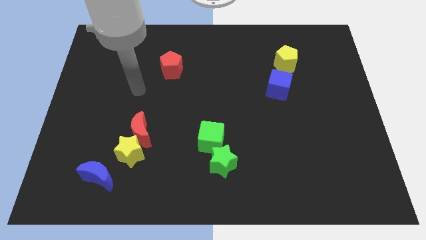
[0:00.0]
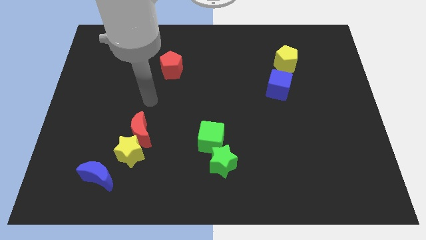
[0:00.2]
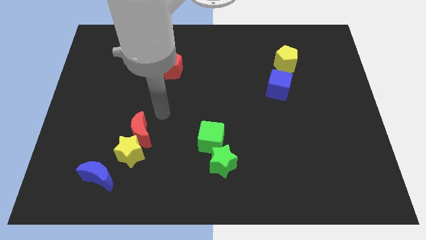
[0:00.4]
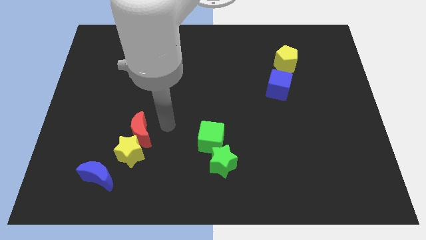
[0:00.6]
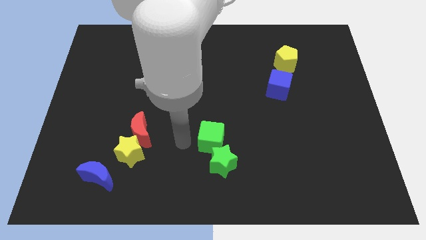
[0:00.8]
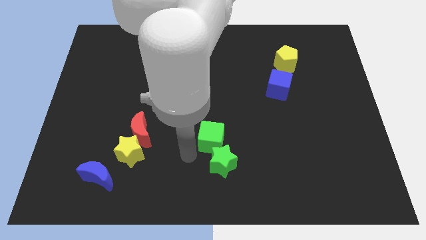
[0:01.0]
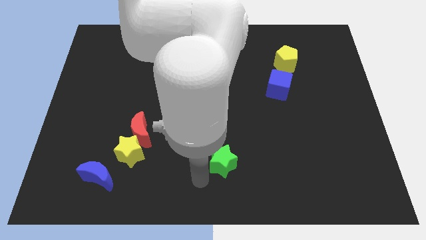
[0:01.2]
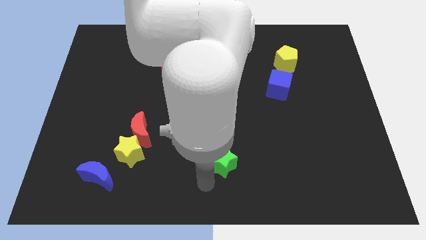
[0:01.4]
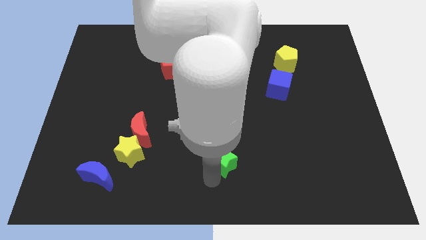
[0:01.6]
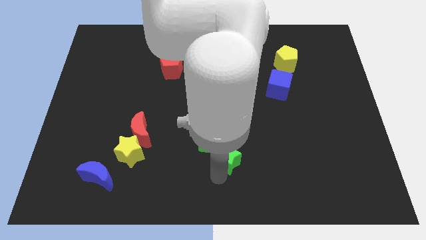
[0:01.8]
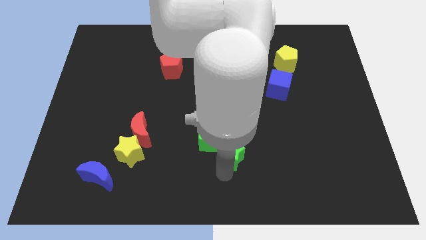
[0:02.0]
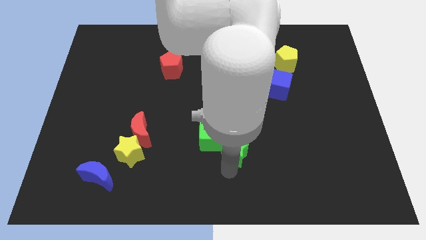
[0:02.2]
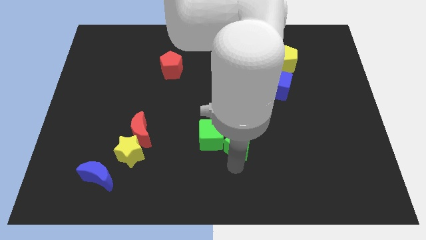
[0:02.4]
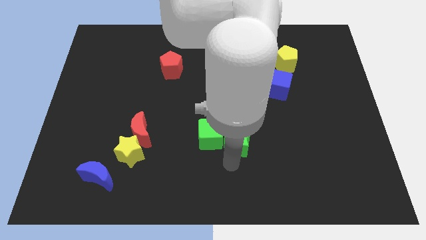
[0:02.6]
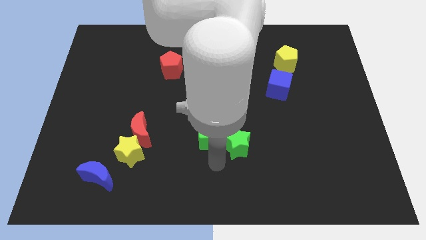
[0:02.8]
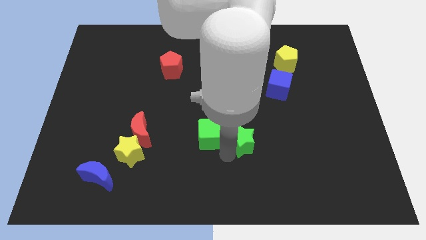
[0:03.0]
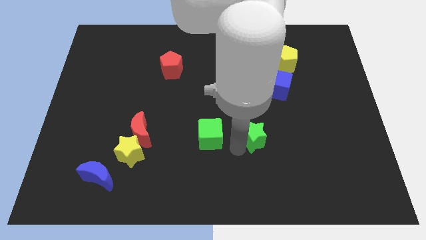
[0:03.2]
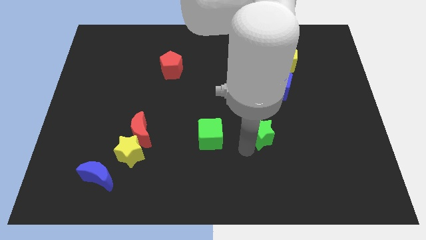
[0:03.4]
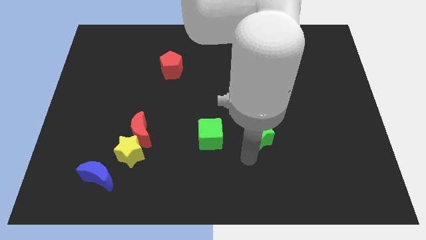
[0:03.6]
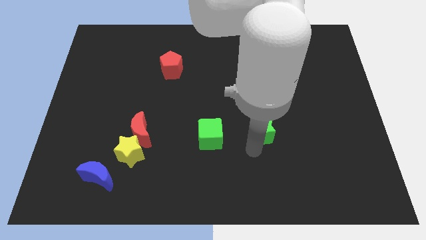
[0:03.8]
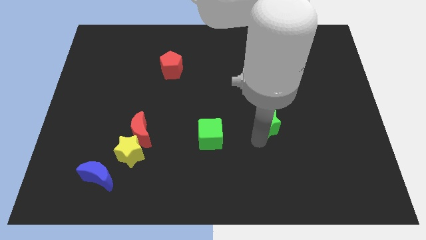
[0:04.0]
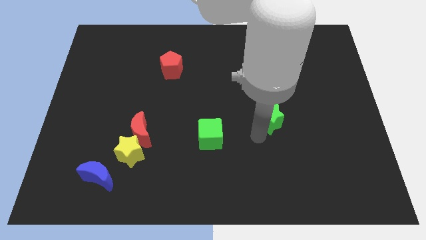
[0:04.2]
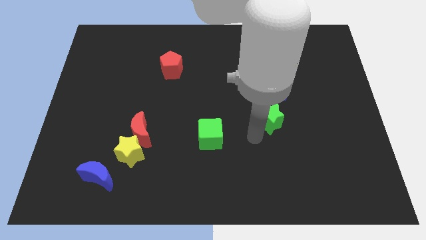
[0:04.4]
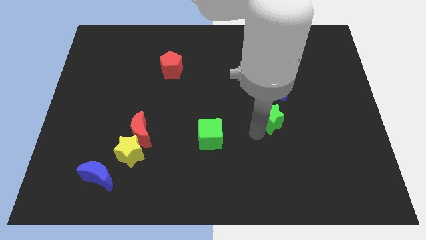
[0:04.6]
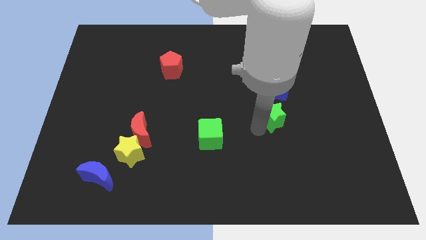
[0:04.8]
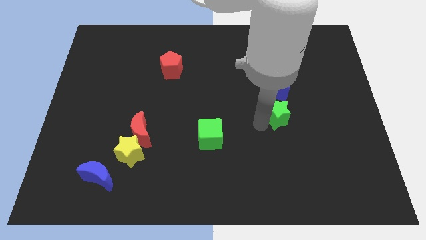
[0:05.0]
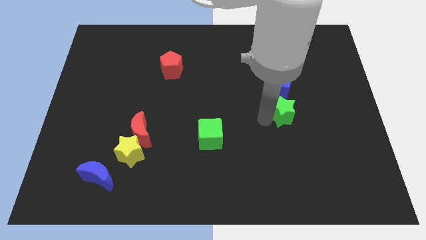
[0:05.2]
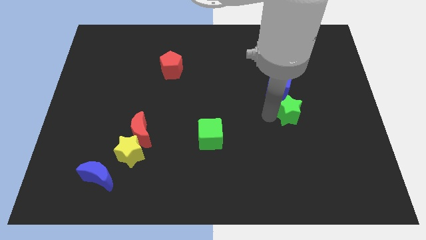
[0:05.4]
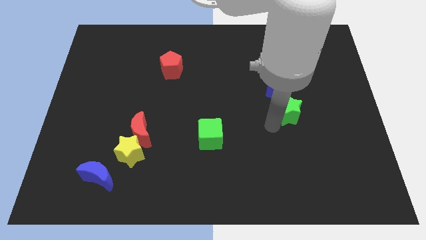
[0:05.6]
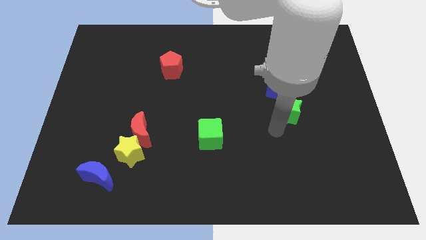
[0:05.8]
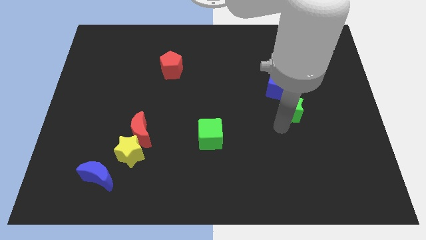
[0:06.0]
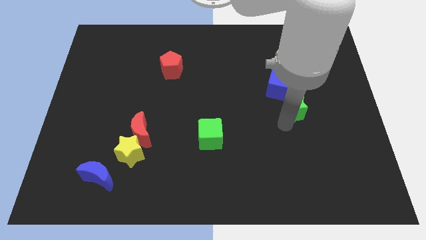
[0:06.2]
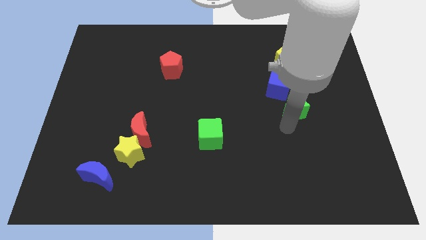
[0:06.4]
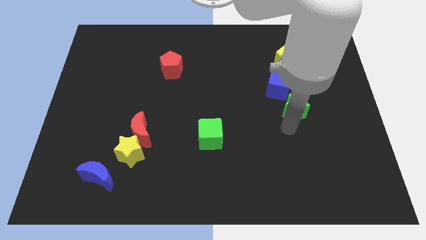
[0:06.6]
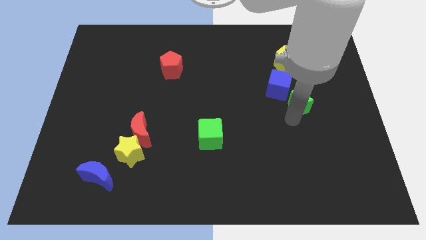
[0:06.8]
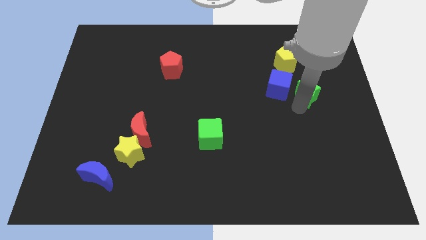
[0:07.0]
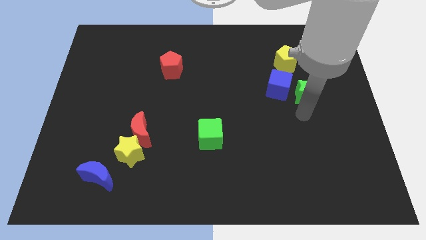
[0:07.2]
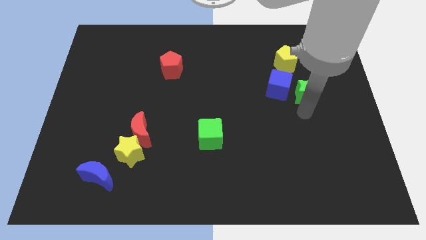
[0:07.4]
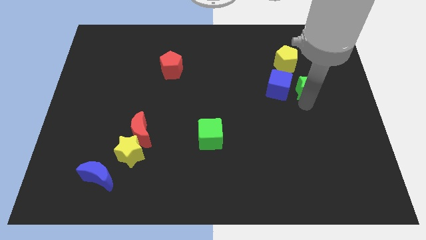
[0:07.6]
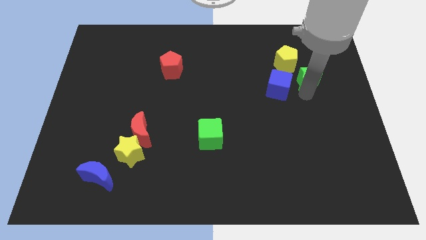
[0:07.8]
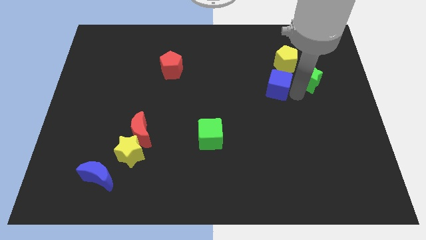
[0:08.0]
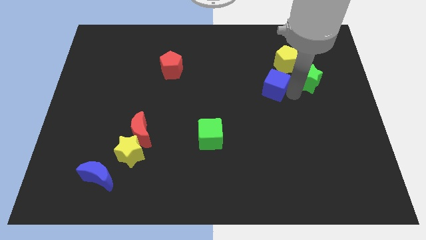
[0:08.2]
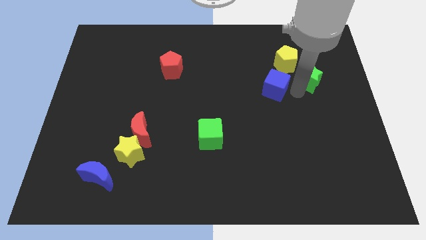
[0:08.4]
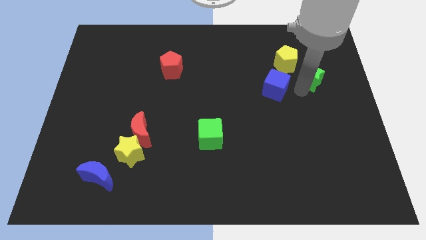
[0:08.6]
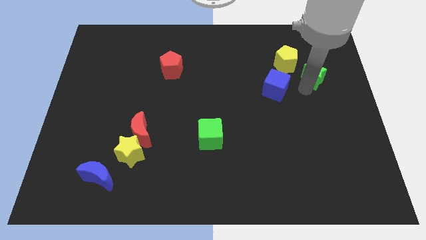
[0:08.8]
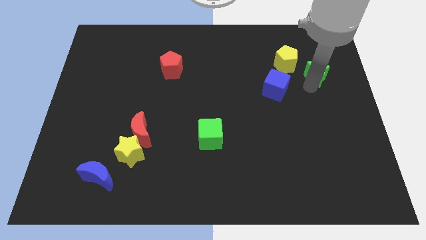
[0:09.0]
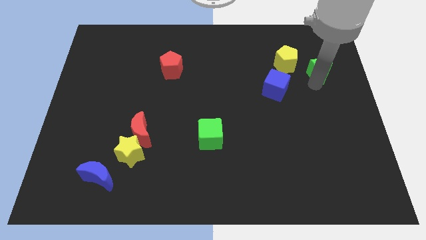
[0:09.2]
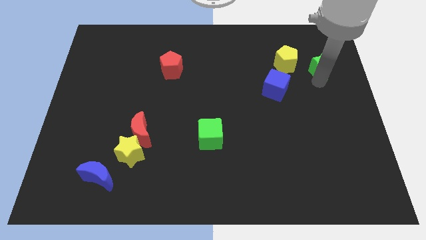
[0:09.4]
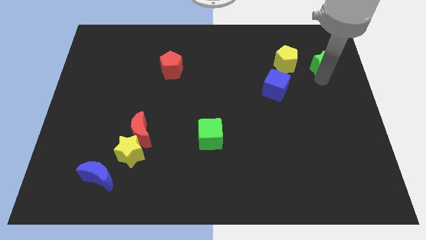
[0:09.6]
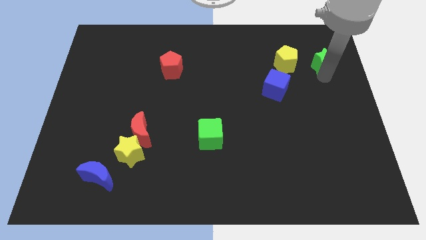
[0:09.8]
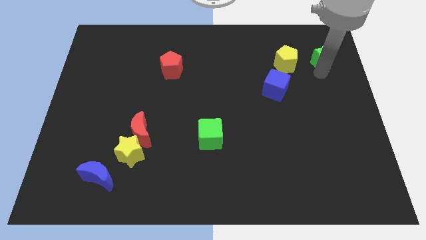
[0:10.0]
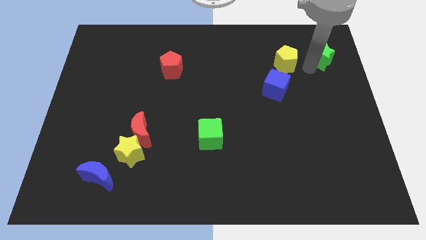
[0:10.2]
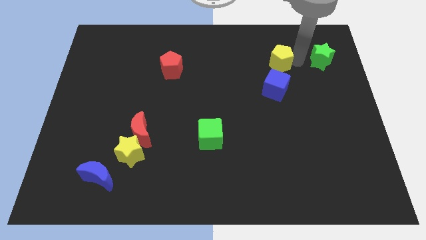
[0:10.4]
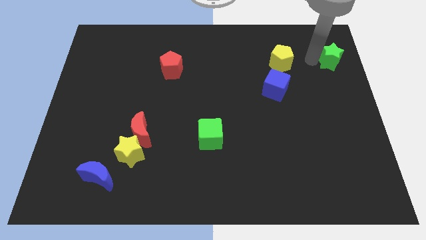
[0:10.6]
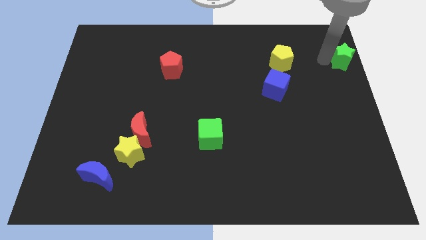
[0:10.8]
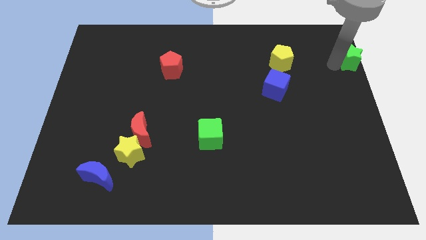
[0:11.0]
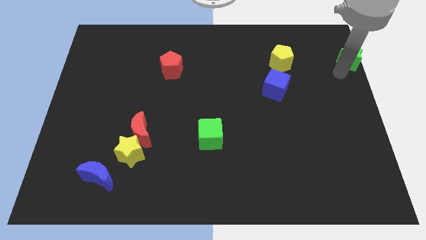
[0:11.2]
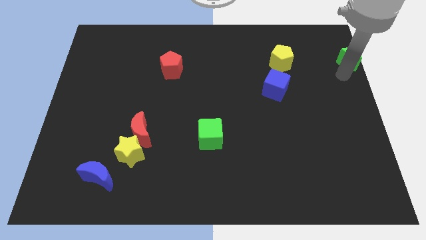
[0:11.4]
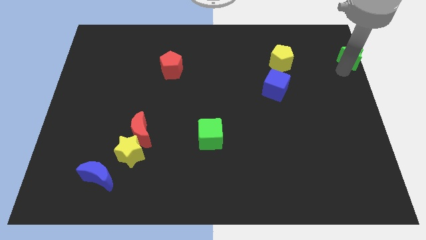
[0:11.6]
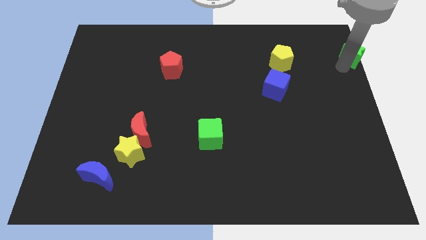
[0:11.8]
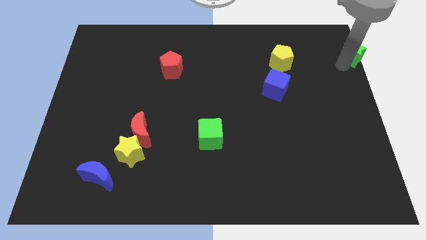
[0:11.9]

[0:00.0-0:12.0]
slide the green star to the top right

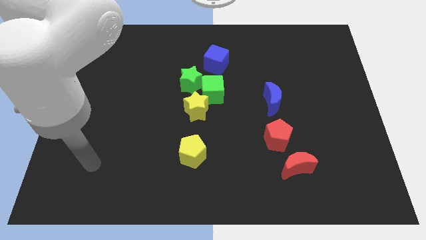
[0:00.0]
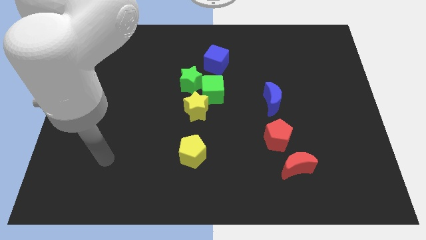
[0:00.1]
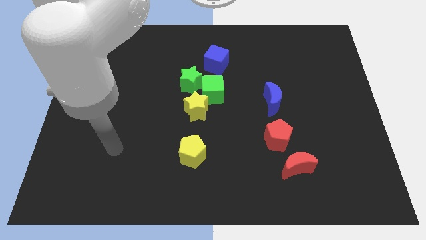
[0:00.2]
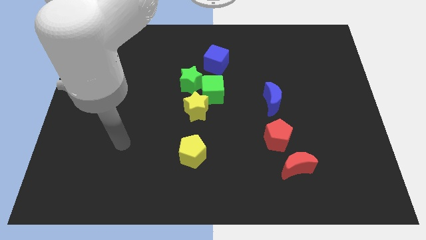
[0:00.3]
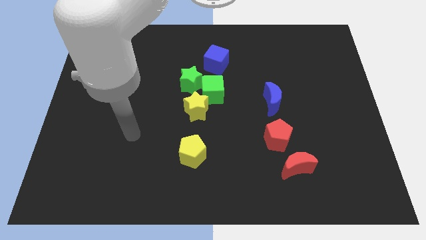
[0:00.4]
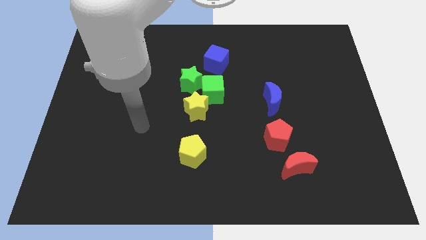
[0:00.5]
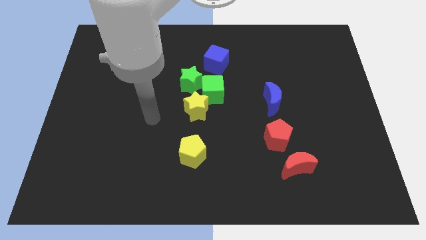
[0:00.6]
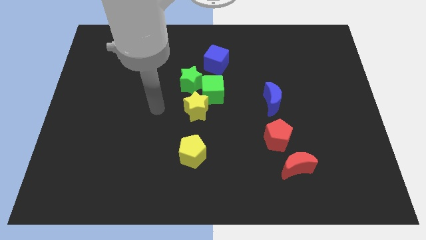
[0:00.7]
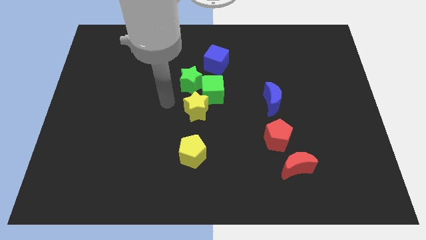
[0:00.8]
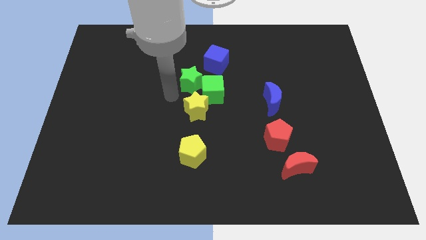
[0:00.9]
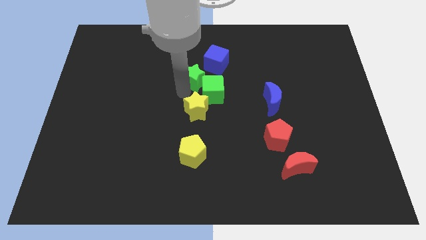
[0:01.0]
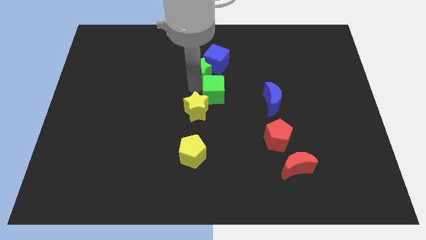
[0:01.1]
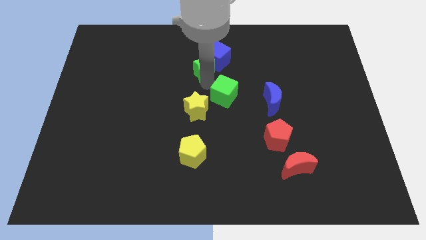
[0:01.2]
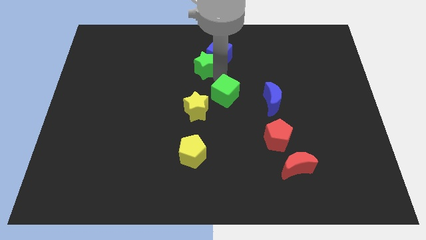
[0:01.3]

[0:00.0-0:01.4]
put the blue cube to the top
